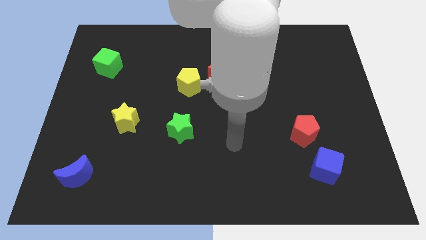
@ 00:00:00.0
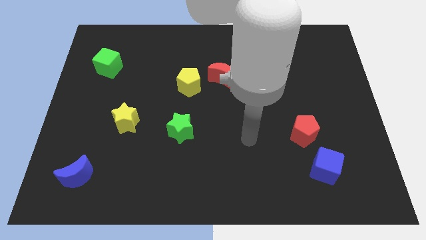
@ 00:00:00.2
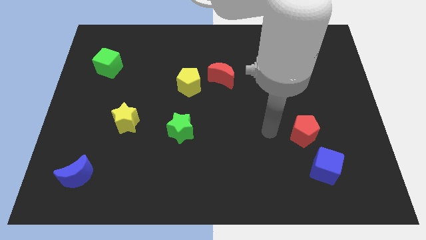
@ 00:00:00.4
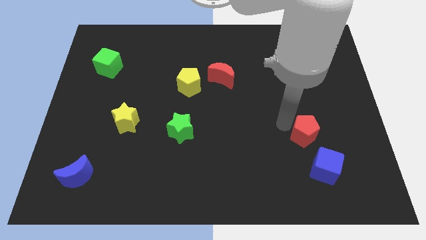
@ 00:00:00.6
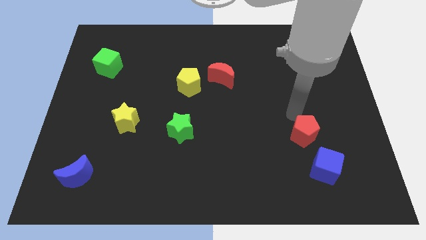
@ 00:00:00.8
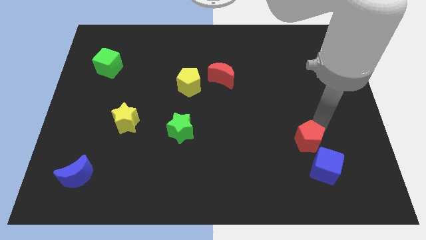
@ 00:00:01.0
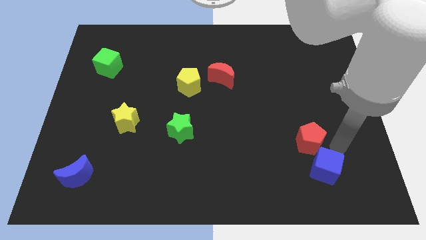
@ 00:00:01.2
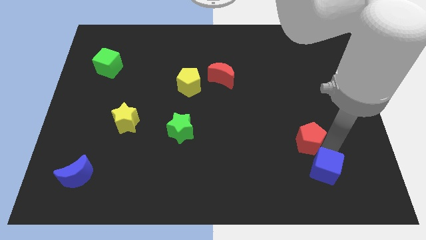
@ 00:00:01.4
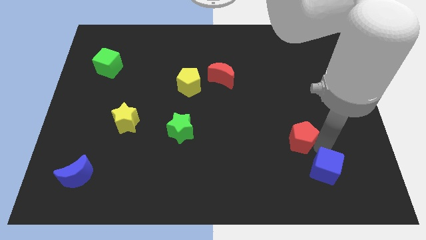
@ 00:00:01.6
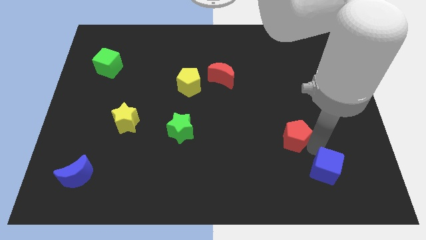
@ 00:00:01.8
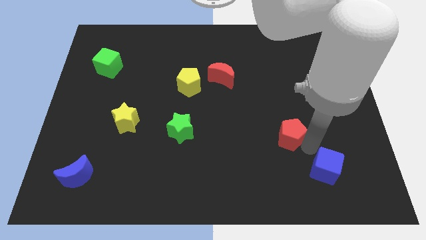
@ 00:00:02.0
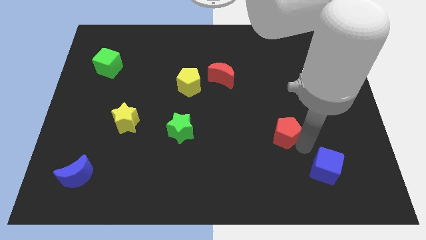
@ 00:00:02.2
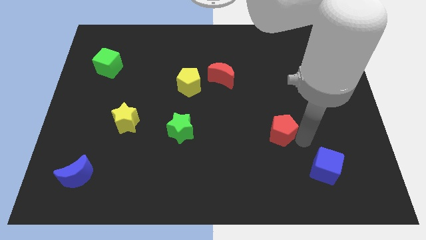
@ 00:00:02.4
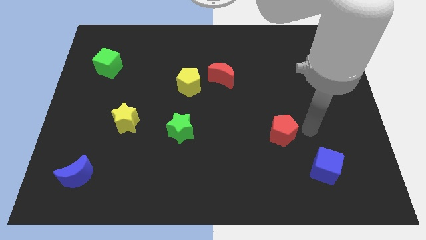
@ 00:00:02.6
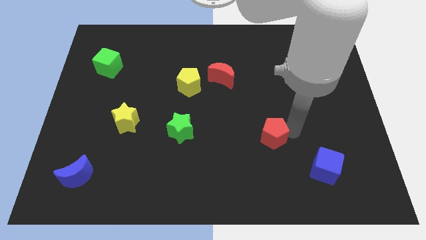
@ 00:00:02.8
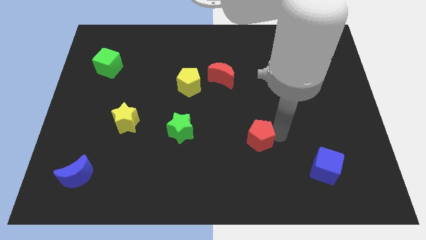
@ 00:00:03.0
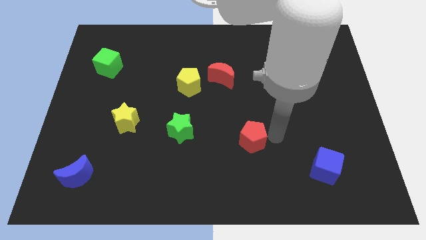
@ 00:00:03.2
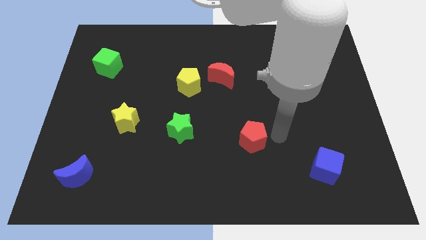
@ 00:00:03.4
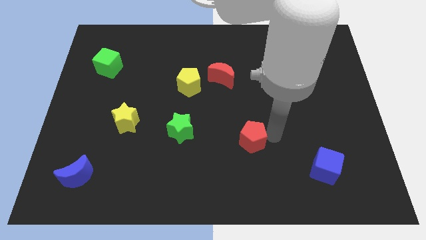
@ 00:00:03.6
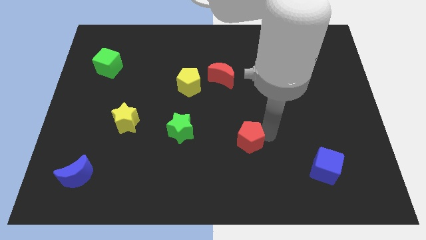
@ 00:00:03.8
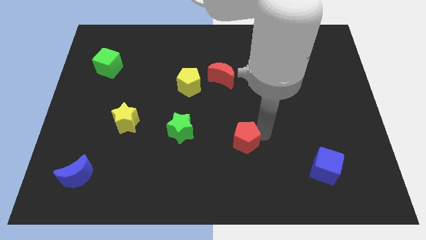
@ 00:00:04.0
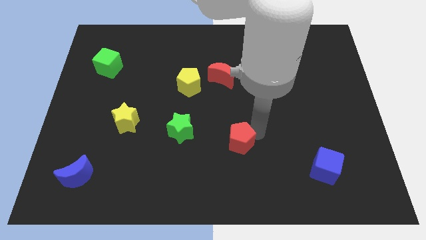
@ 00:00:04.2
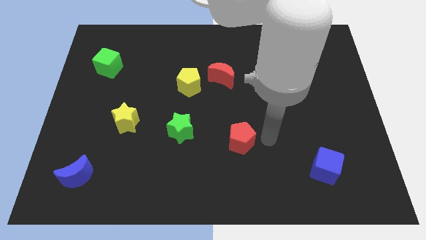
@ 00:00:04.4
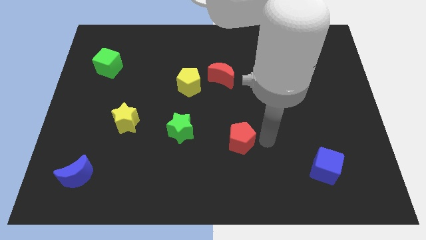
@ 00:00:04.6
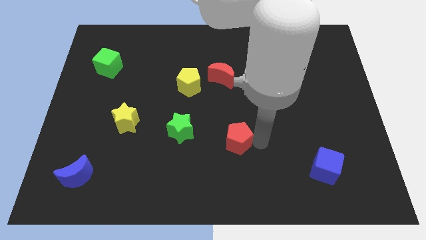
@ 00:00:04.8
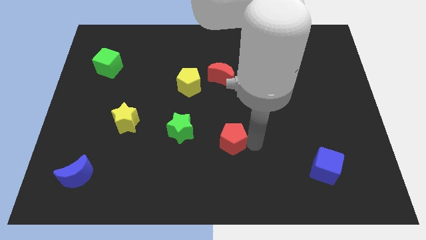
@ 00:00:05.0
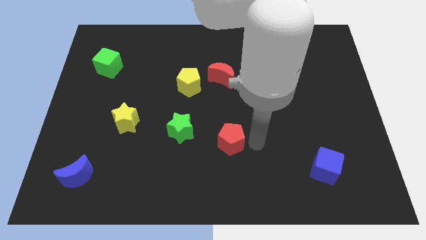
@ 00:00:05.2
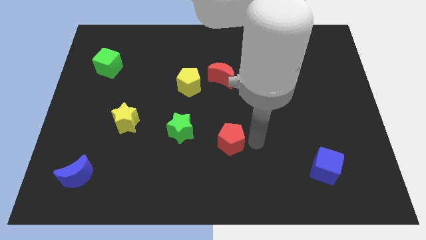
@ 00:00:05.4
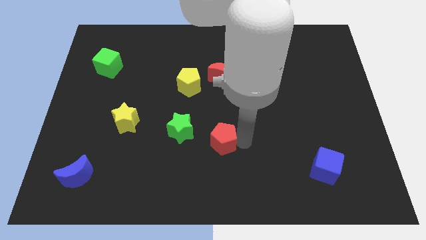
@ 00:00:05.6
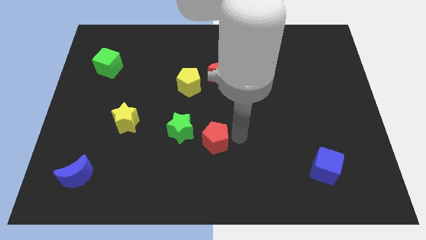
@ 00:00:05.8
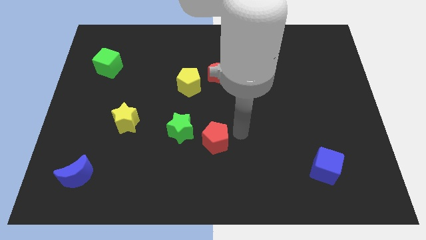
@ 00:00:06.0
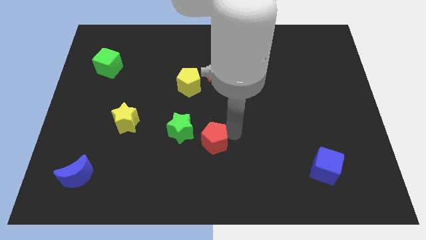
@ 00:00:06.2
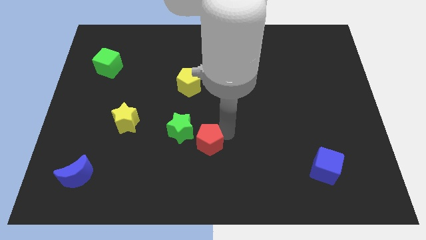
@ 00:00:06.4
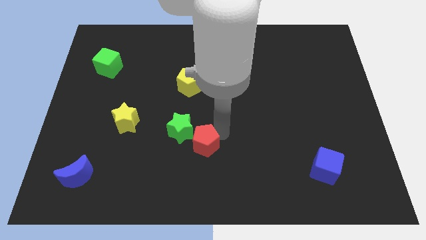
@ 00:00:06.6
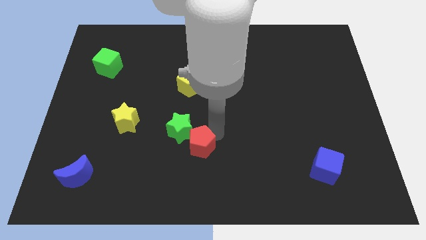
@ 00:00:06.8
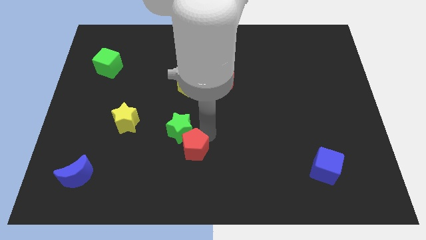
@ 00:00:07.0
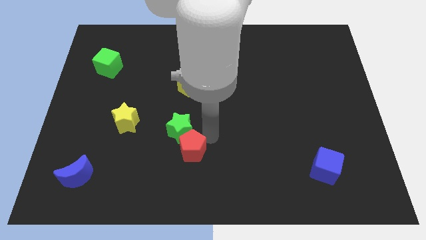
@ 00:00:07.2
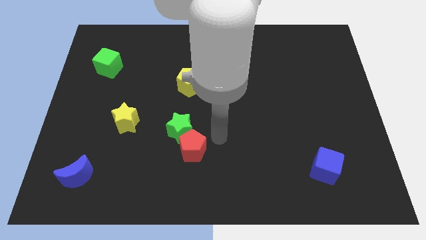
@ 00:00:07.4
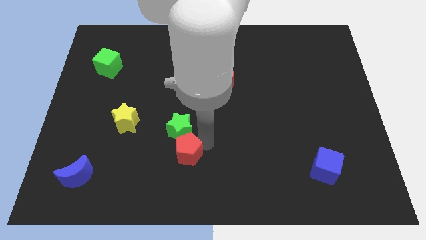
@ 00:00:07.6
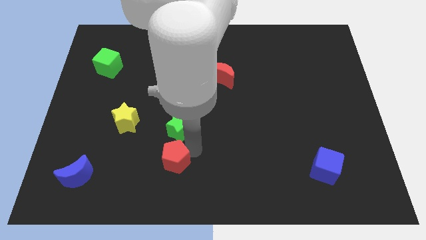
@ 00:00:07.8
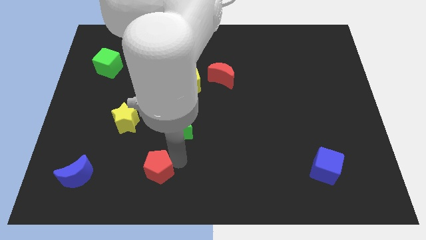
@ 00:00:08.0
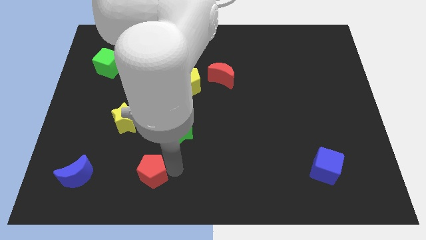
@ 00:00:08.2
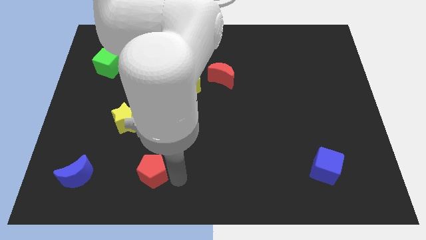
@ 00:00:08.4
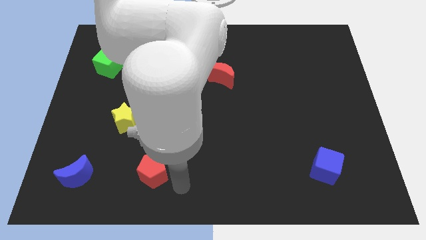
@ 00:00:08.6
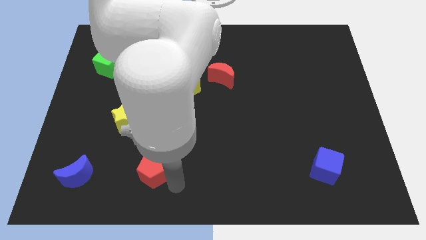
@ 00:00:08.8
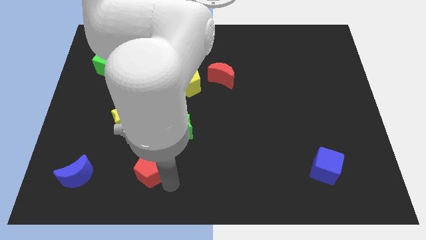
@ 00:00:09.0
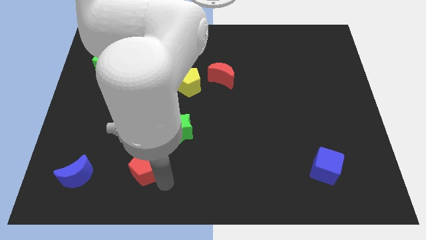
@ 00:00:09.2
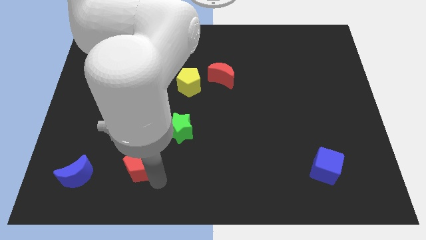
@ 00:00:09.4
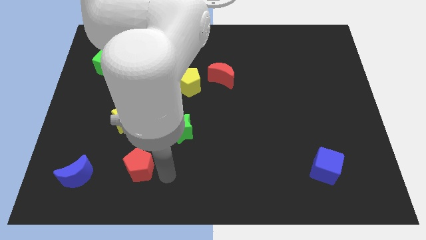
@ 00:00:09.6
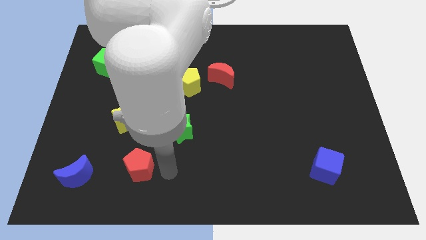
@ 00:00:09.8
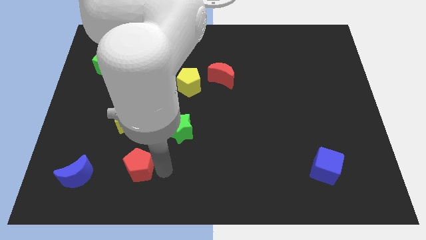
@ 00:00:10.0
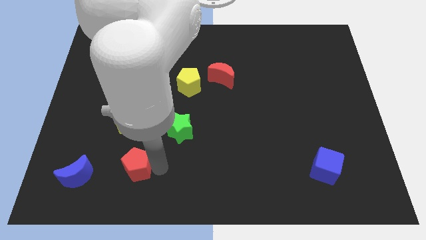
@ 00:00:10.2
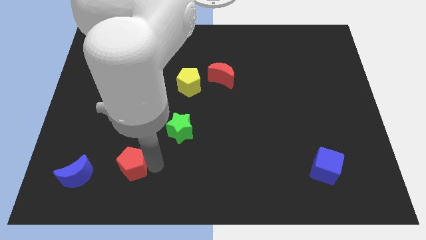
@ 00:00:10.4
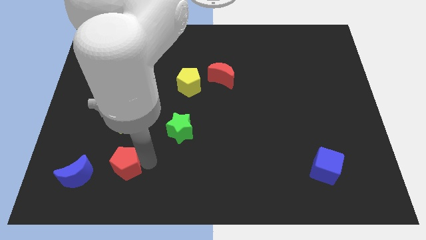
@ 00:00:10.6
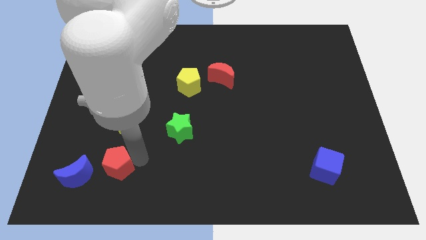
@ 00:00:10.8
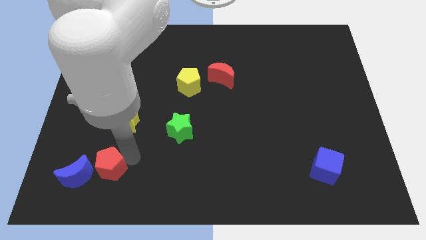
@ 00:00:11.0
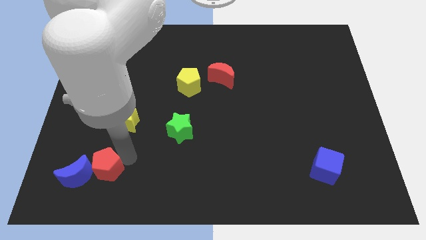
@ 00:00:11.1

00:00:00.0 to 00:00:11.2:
slide the red pentagon towards the blue moon

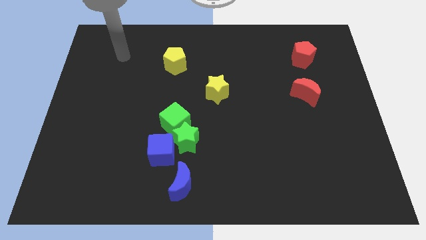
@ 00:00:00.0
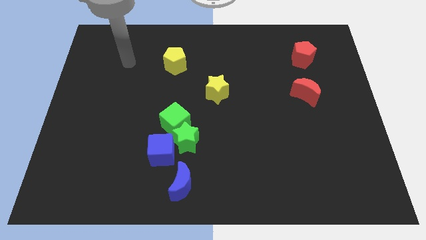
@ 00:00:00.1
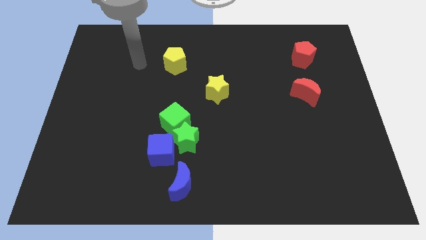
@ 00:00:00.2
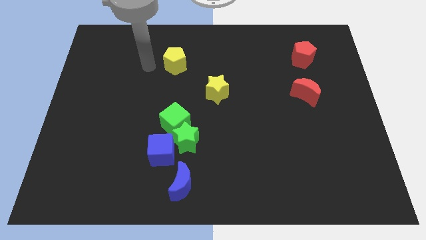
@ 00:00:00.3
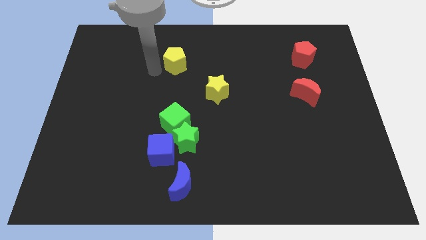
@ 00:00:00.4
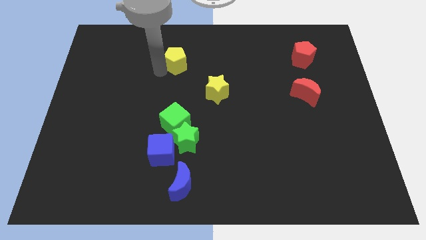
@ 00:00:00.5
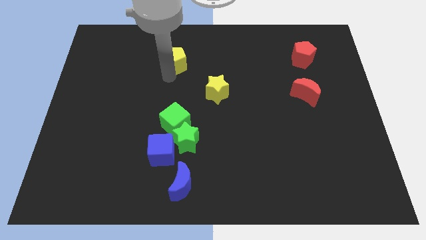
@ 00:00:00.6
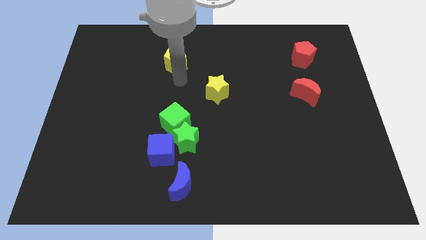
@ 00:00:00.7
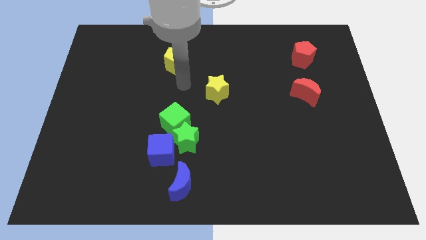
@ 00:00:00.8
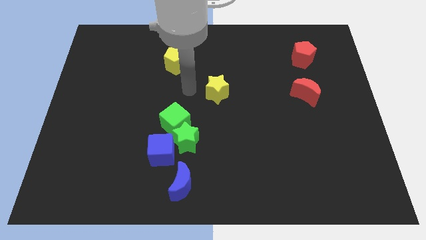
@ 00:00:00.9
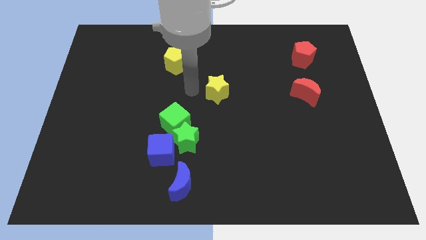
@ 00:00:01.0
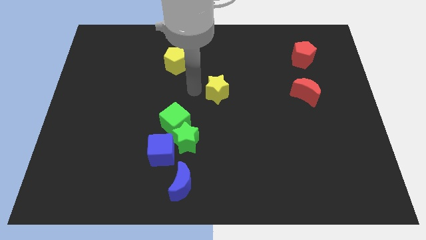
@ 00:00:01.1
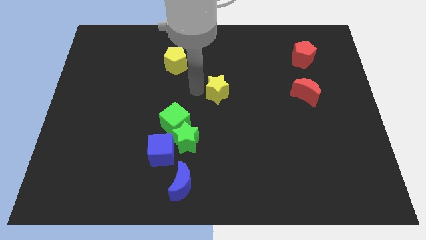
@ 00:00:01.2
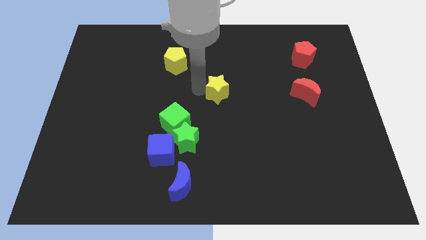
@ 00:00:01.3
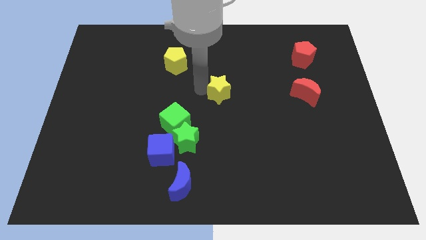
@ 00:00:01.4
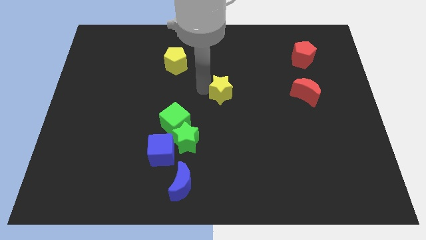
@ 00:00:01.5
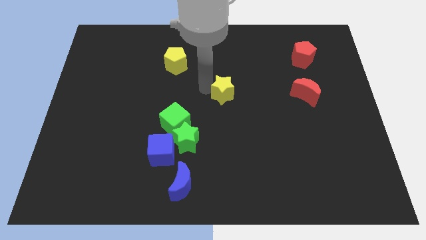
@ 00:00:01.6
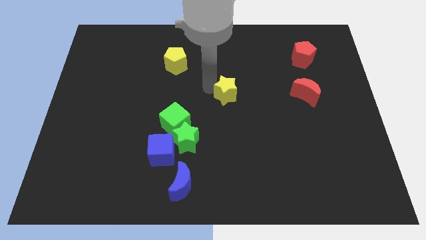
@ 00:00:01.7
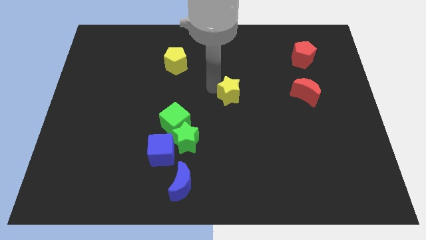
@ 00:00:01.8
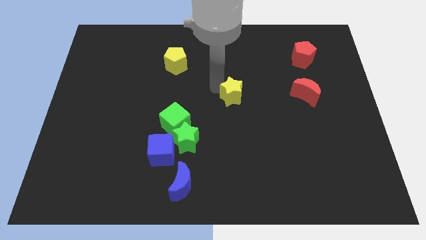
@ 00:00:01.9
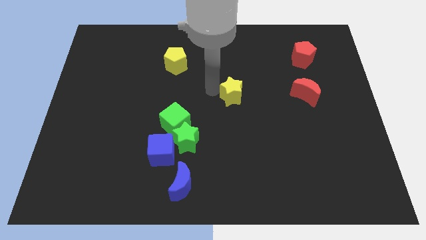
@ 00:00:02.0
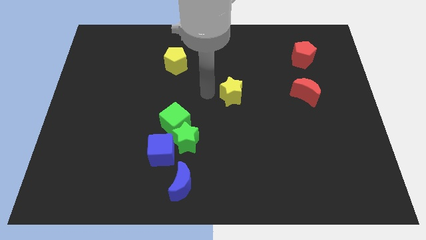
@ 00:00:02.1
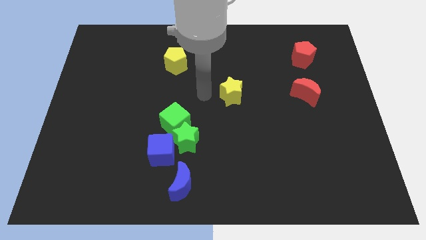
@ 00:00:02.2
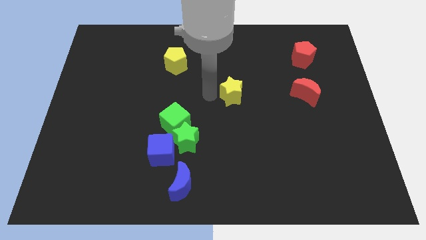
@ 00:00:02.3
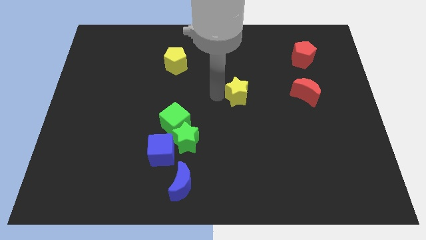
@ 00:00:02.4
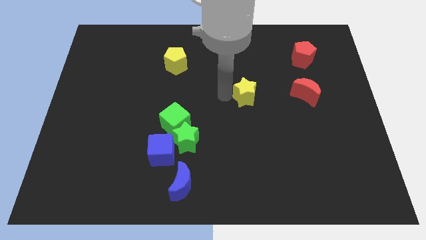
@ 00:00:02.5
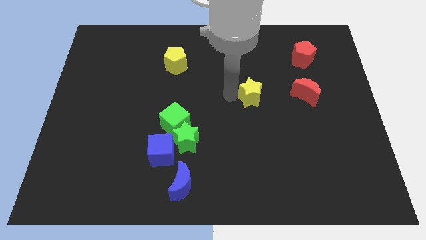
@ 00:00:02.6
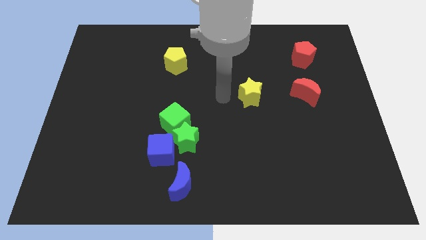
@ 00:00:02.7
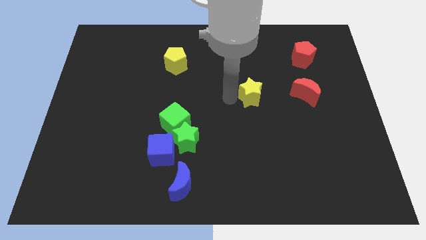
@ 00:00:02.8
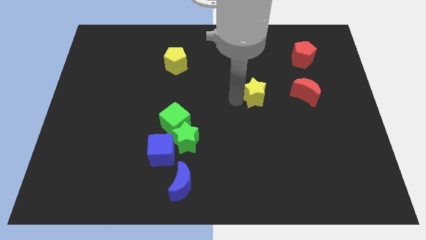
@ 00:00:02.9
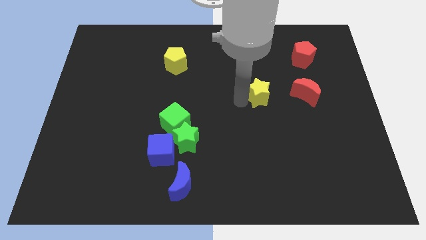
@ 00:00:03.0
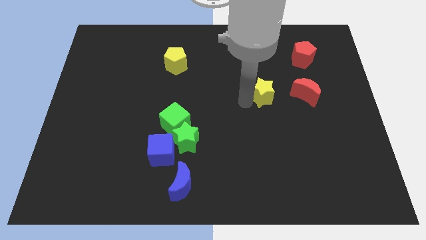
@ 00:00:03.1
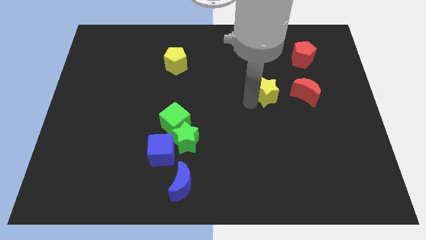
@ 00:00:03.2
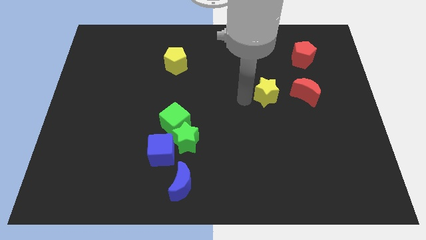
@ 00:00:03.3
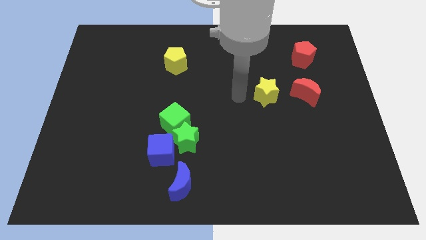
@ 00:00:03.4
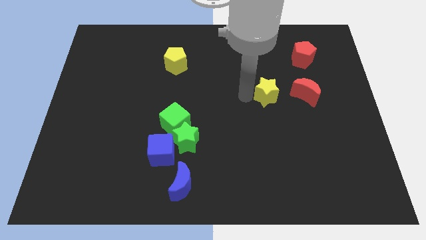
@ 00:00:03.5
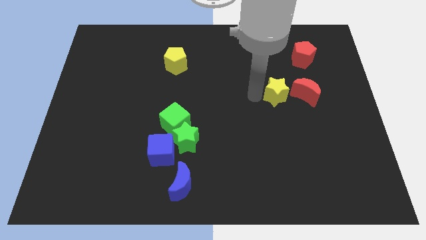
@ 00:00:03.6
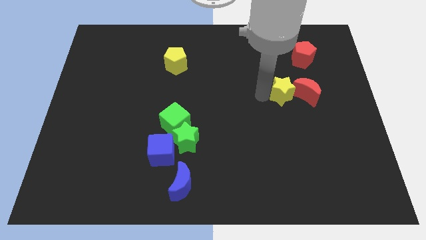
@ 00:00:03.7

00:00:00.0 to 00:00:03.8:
slide the yellow star towards the red moon
